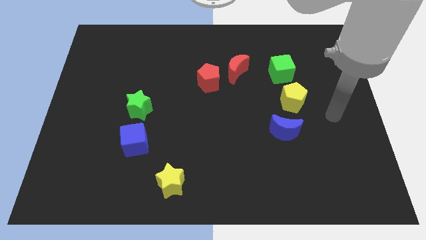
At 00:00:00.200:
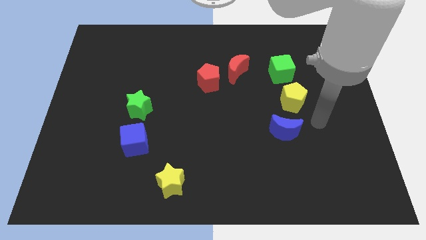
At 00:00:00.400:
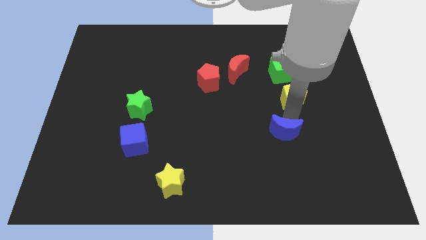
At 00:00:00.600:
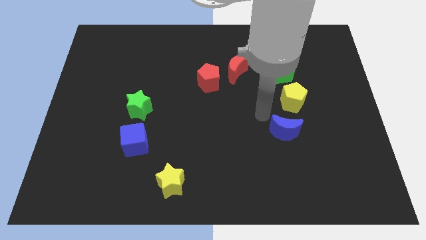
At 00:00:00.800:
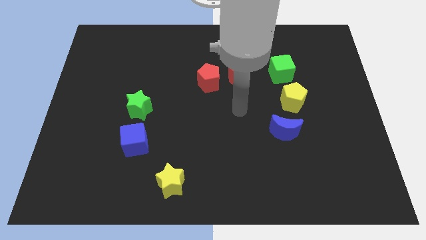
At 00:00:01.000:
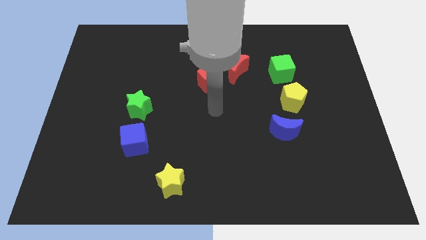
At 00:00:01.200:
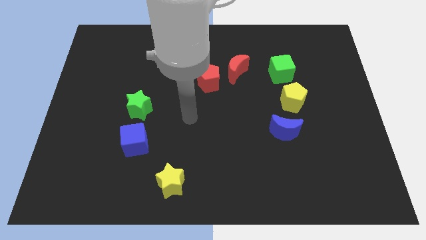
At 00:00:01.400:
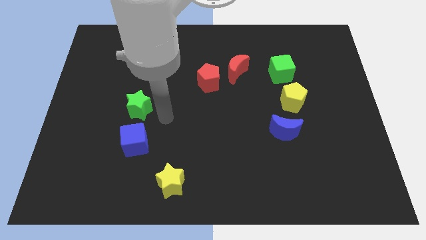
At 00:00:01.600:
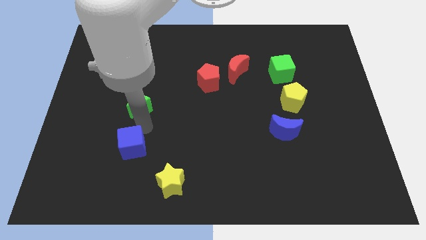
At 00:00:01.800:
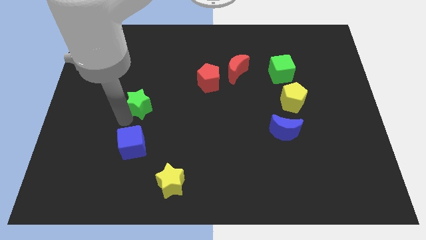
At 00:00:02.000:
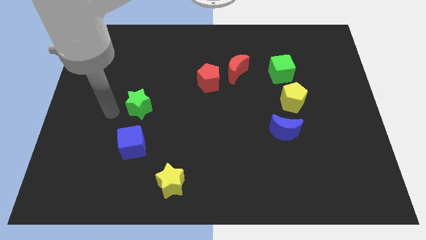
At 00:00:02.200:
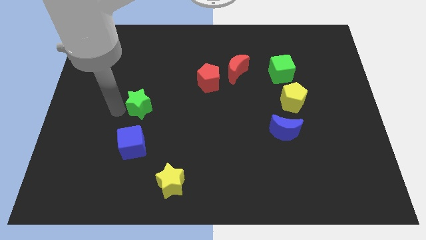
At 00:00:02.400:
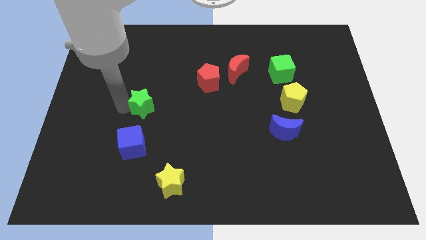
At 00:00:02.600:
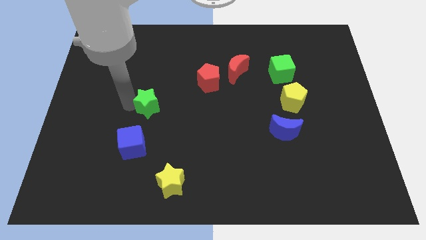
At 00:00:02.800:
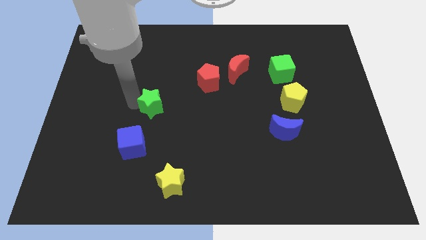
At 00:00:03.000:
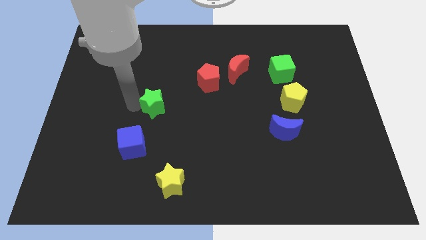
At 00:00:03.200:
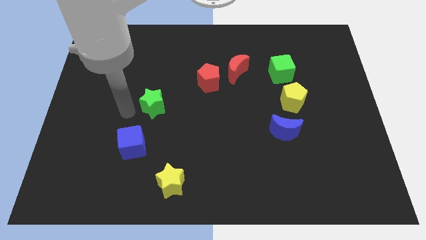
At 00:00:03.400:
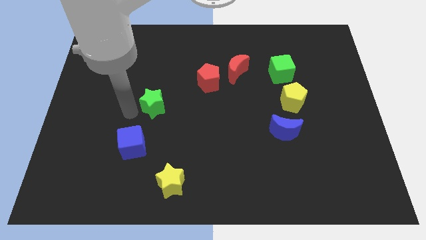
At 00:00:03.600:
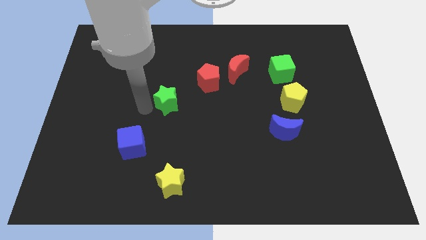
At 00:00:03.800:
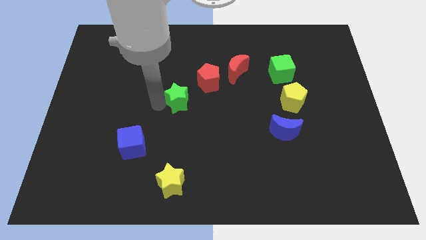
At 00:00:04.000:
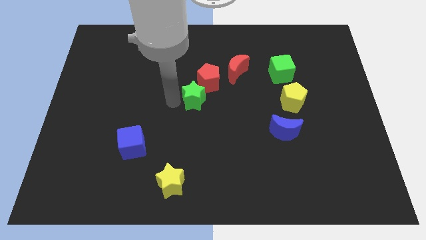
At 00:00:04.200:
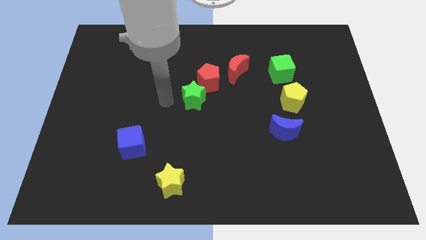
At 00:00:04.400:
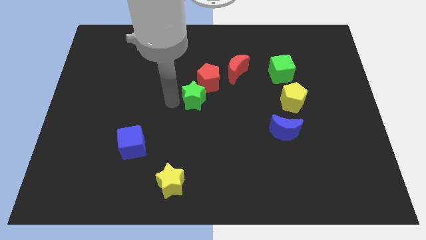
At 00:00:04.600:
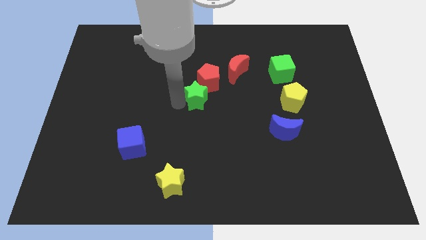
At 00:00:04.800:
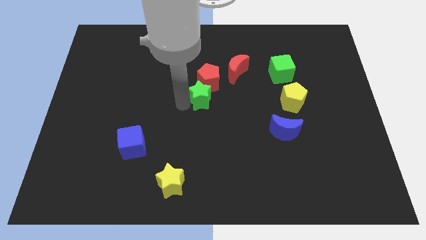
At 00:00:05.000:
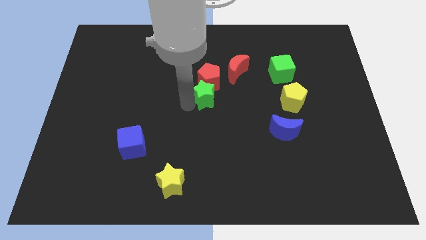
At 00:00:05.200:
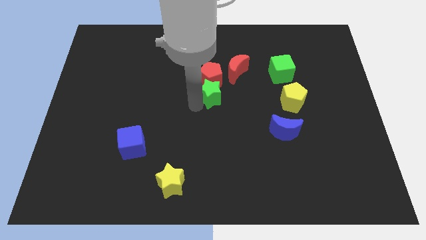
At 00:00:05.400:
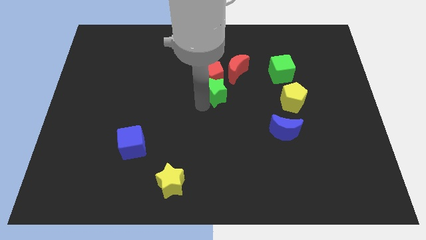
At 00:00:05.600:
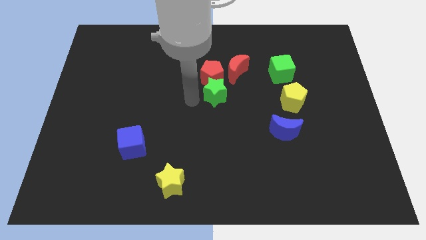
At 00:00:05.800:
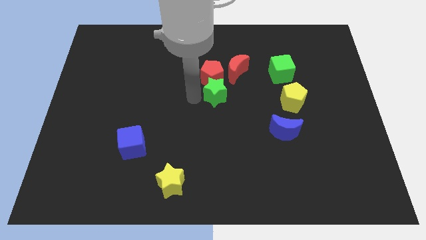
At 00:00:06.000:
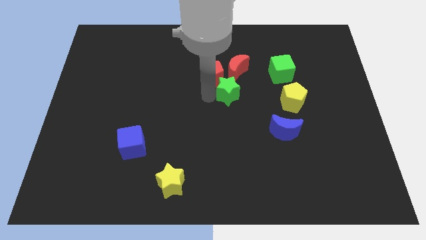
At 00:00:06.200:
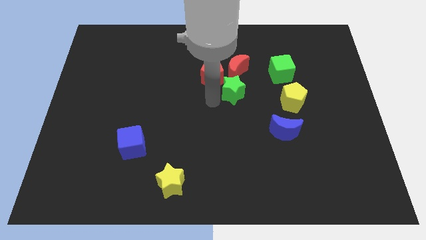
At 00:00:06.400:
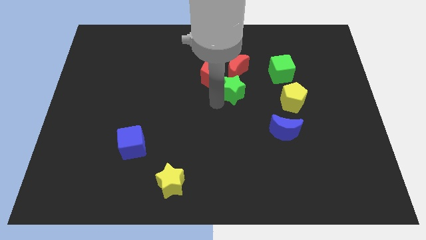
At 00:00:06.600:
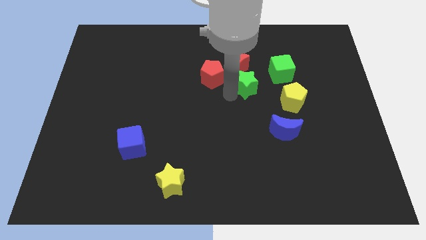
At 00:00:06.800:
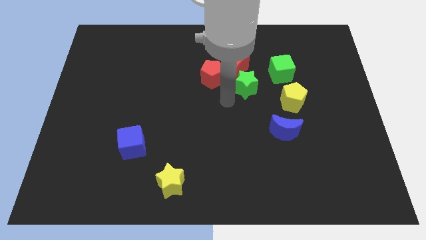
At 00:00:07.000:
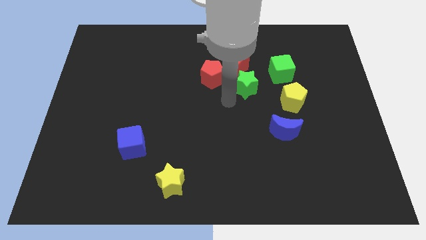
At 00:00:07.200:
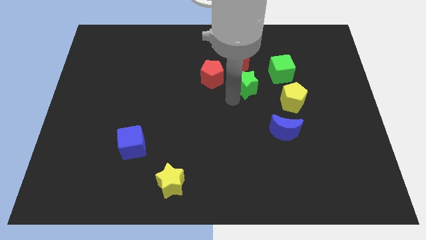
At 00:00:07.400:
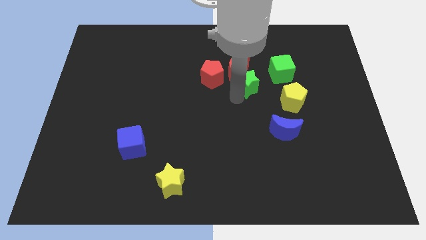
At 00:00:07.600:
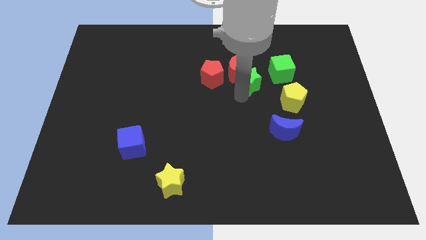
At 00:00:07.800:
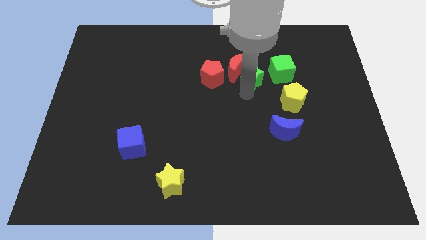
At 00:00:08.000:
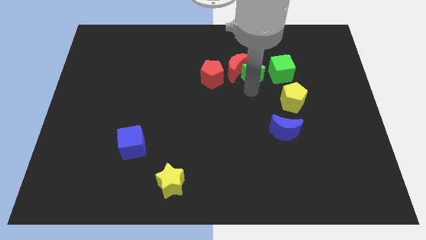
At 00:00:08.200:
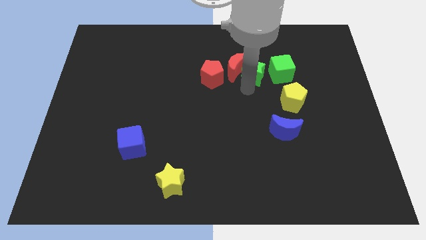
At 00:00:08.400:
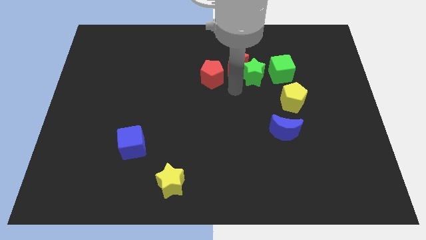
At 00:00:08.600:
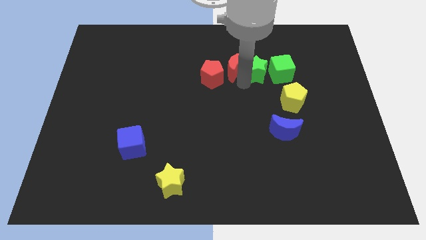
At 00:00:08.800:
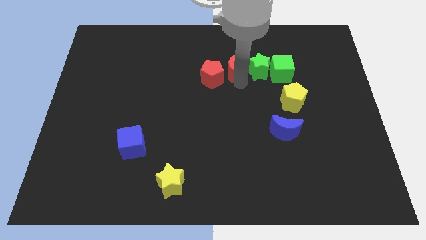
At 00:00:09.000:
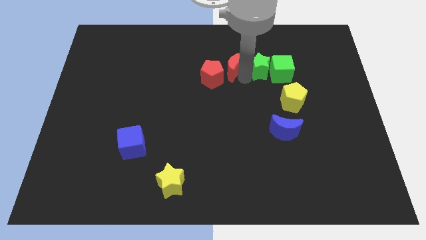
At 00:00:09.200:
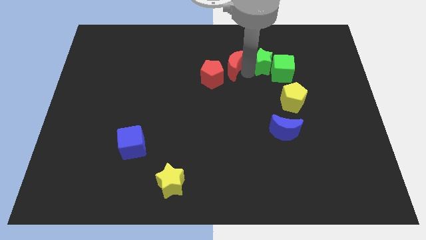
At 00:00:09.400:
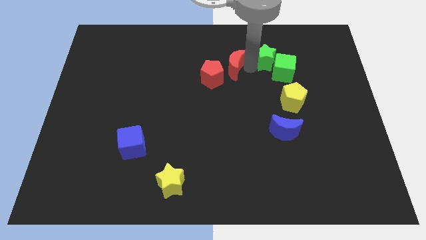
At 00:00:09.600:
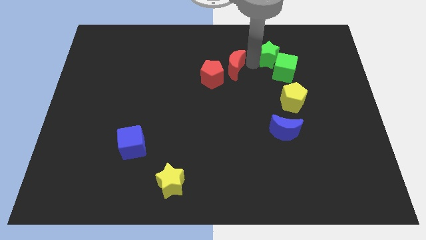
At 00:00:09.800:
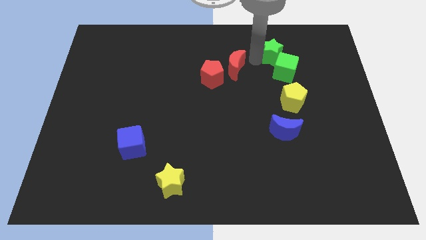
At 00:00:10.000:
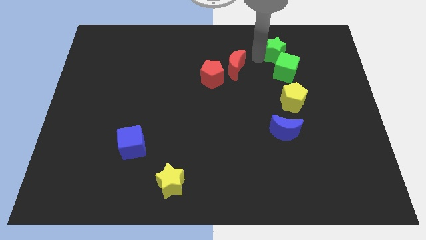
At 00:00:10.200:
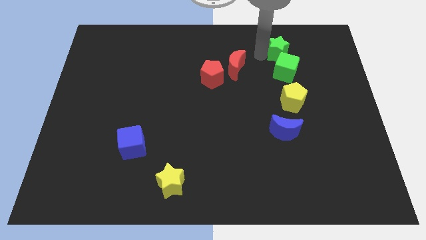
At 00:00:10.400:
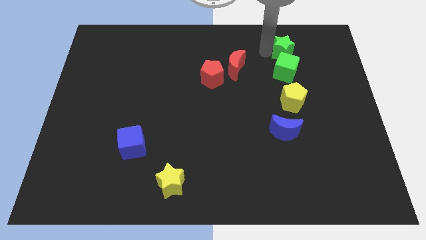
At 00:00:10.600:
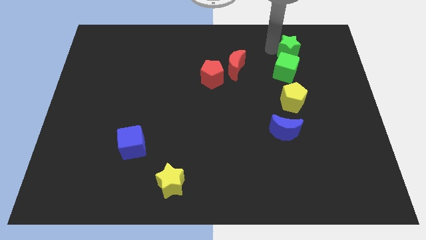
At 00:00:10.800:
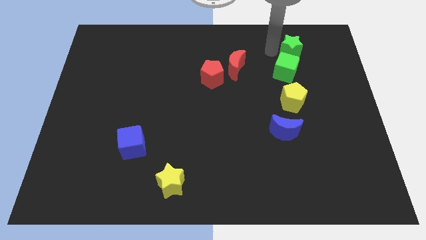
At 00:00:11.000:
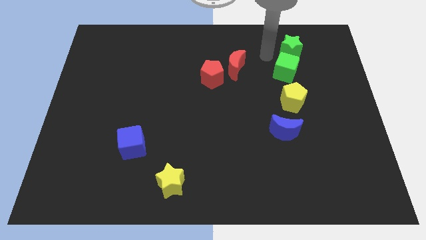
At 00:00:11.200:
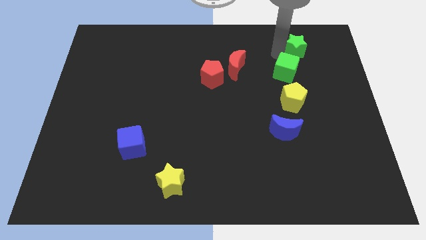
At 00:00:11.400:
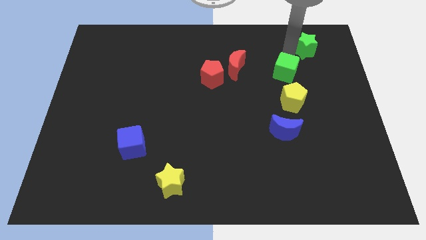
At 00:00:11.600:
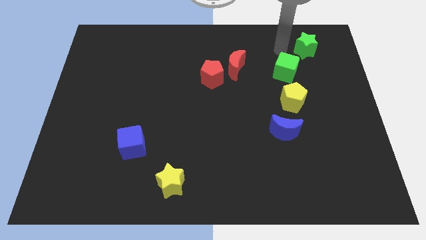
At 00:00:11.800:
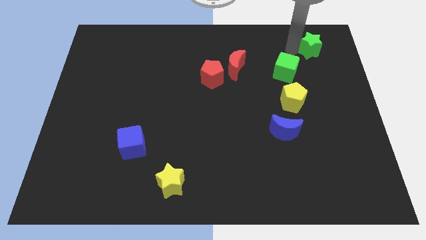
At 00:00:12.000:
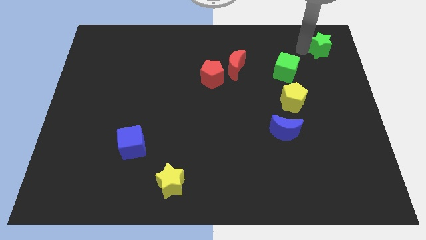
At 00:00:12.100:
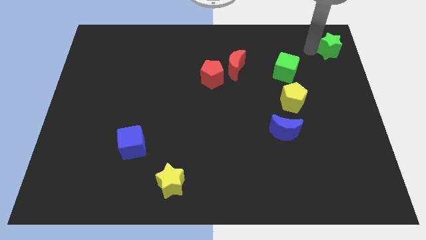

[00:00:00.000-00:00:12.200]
move the green star to the top right
